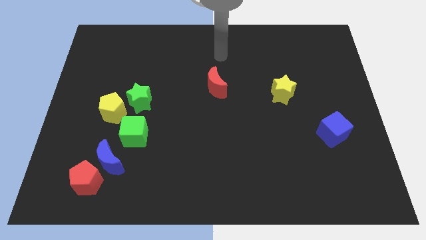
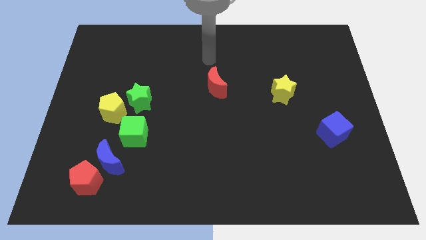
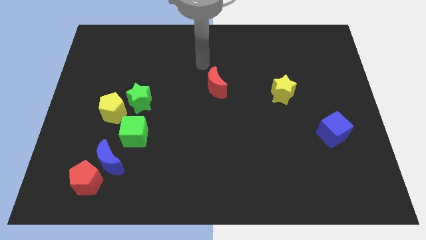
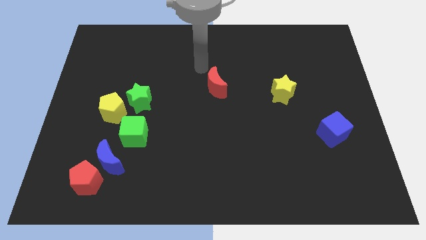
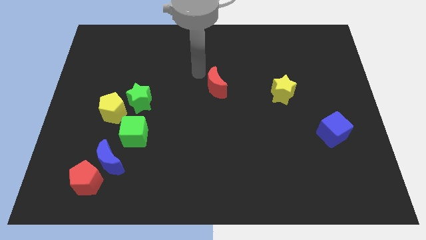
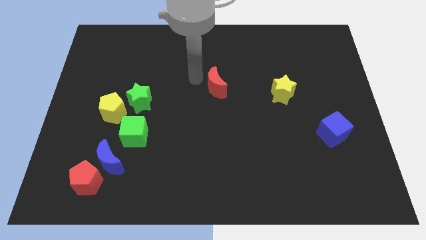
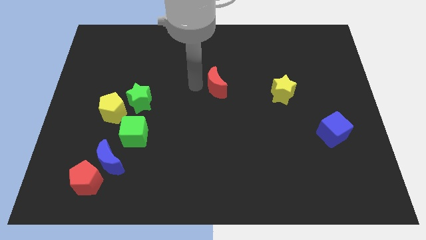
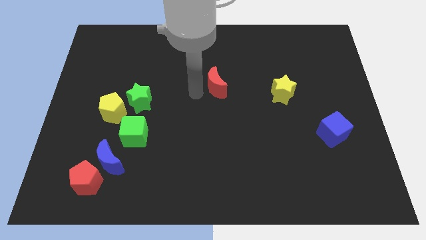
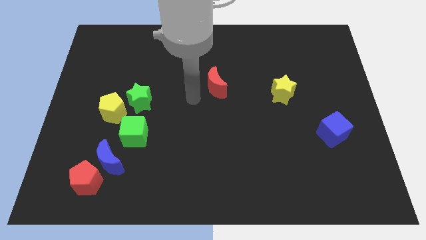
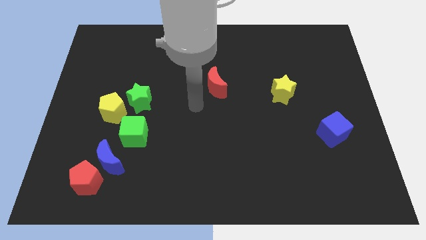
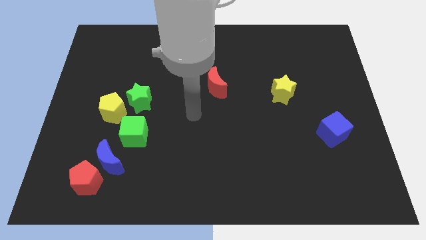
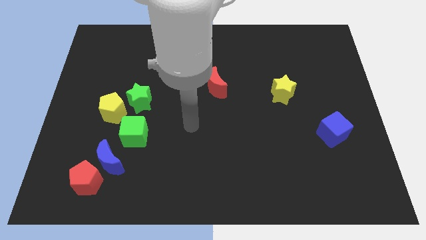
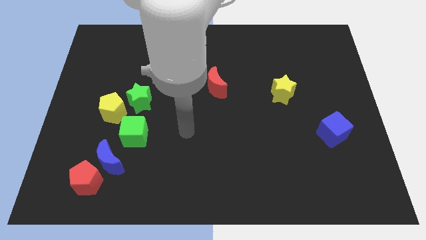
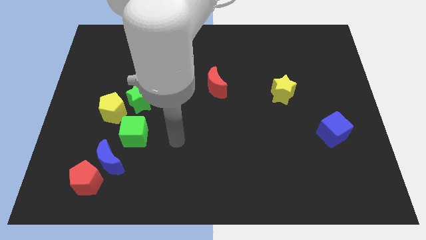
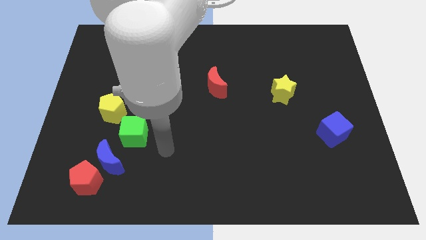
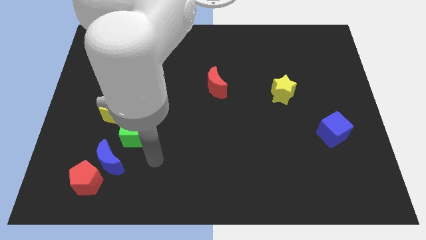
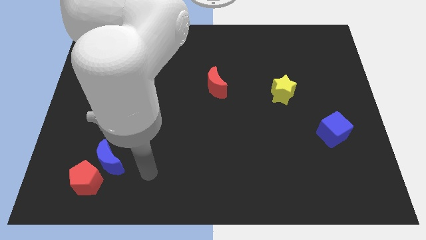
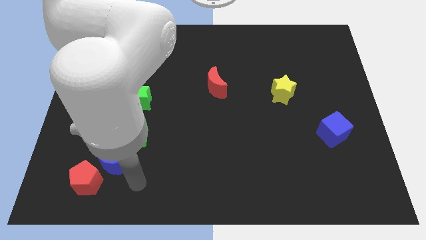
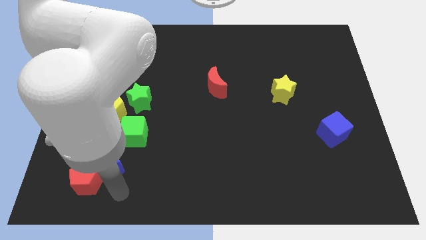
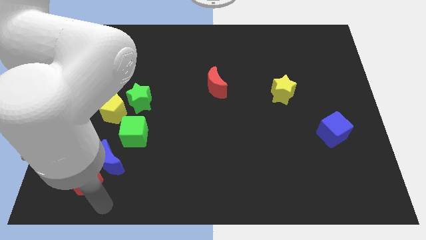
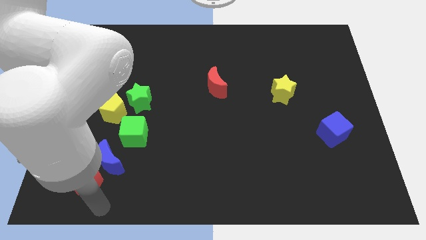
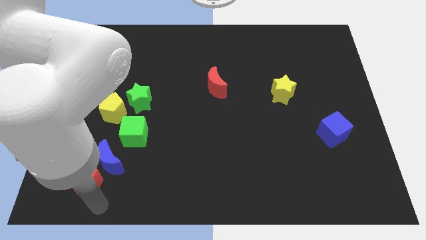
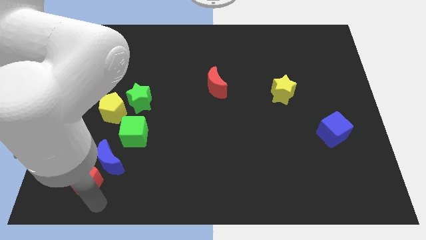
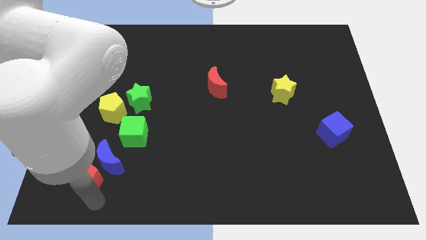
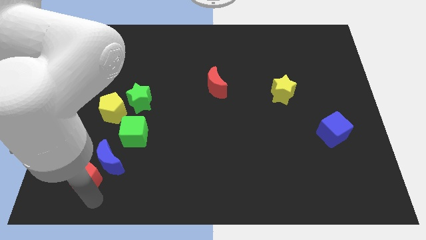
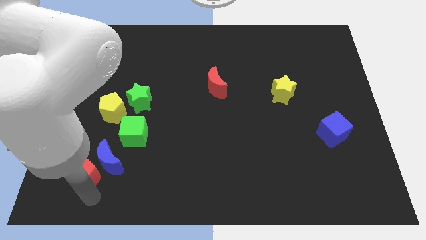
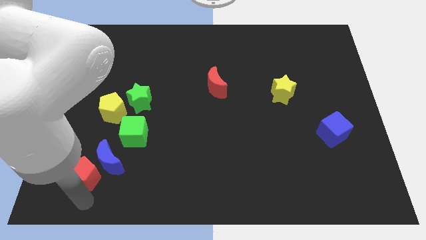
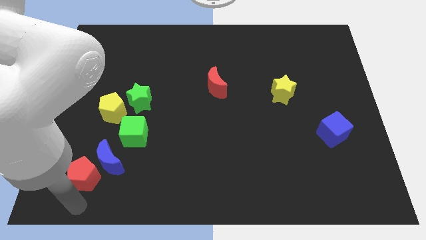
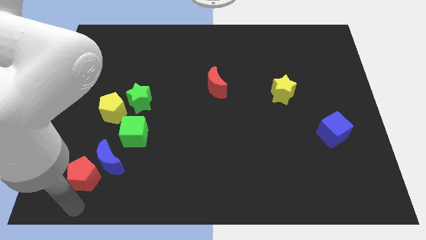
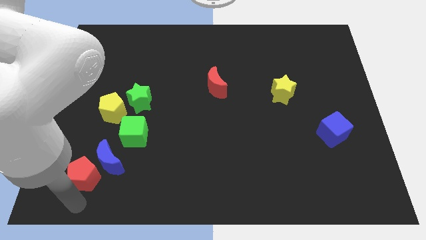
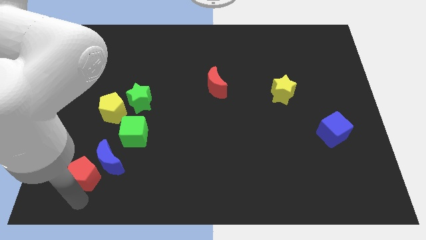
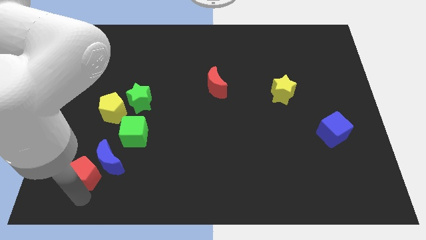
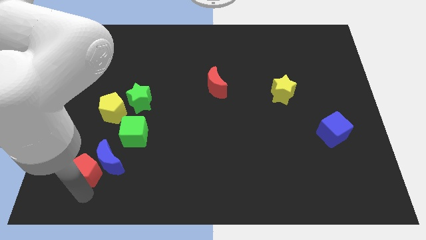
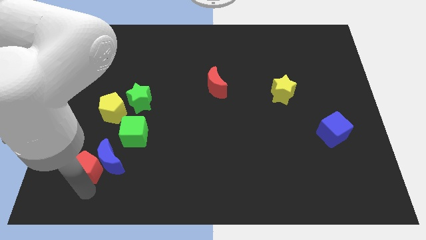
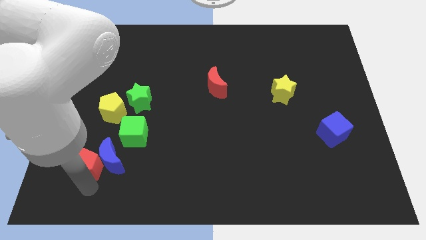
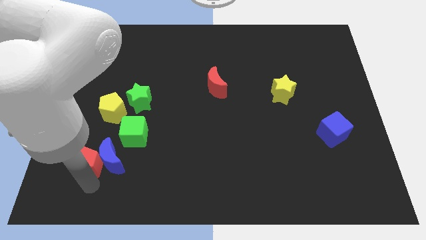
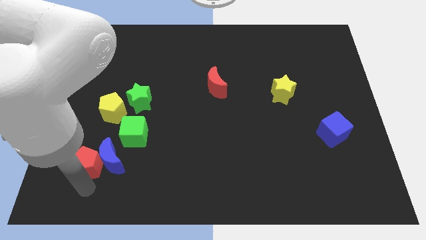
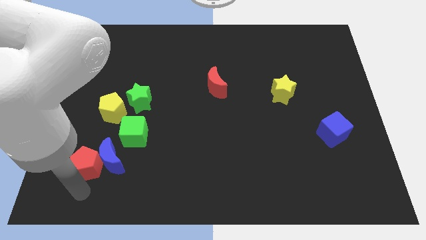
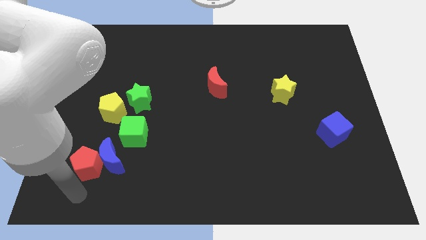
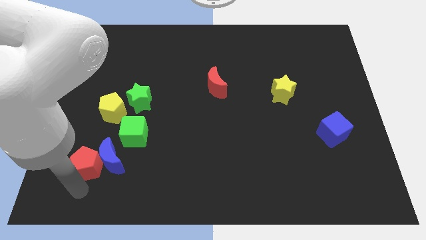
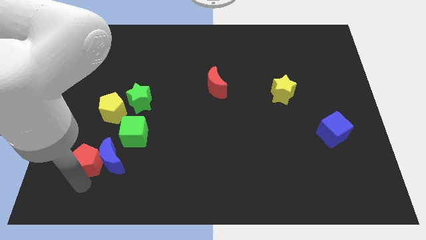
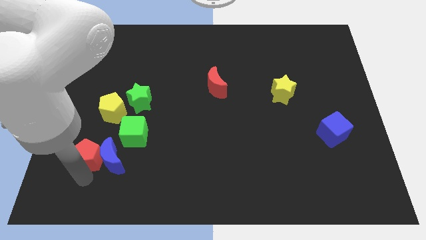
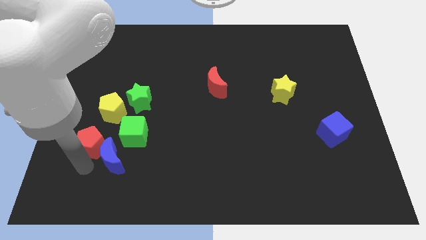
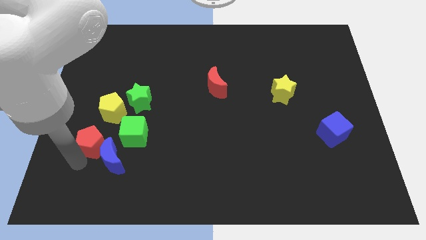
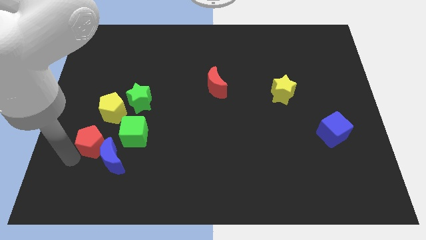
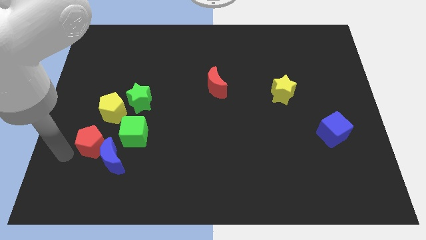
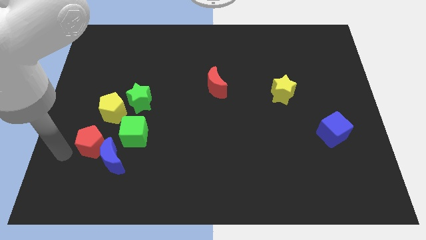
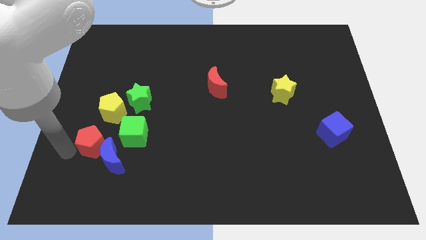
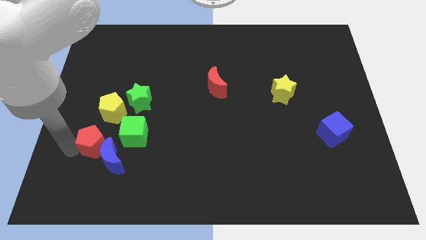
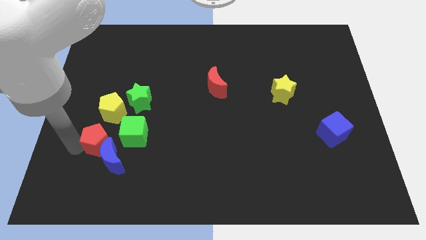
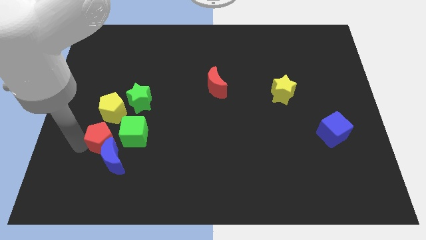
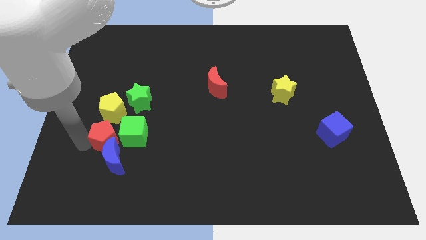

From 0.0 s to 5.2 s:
put the red pentagon close to the green cube

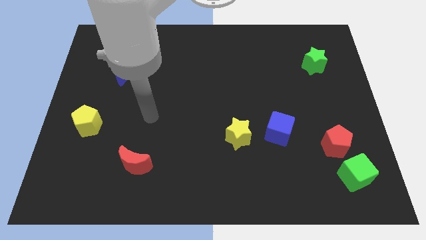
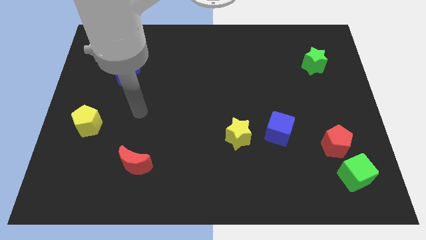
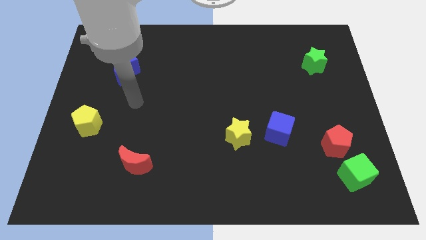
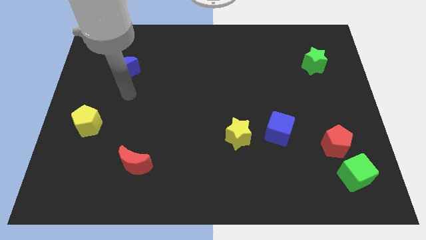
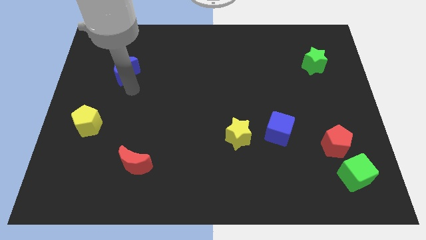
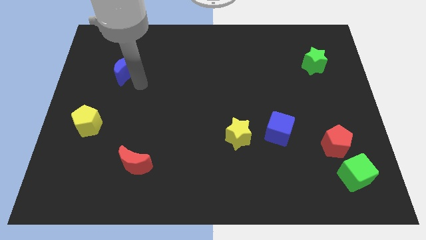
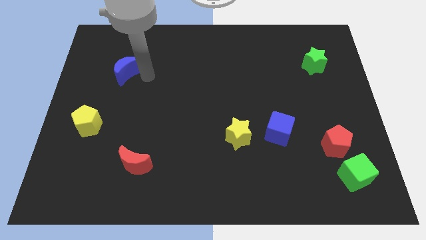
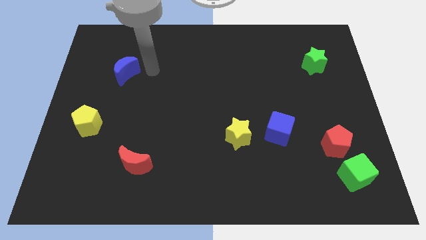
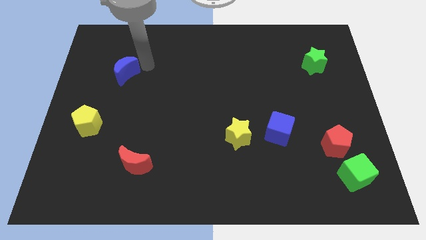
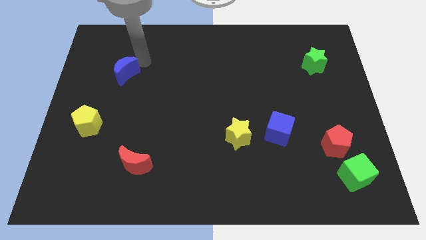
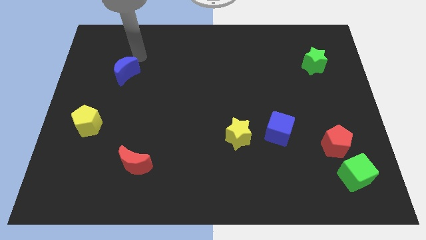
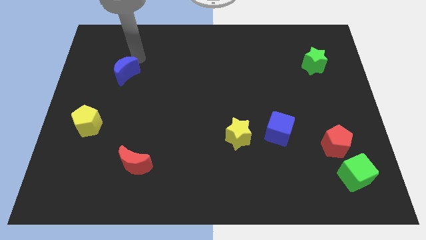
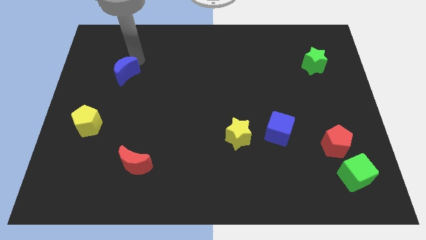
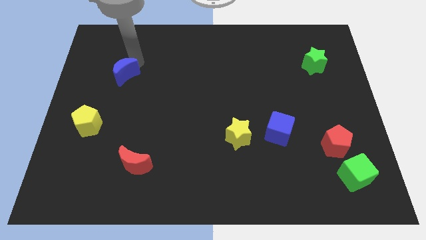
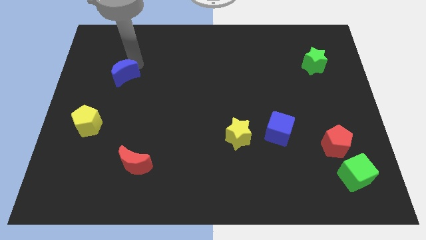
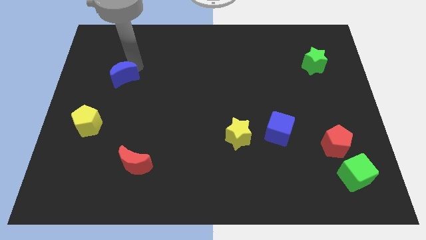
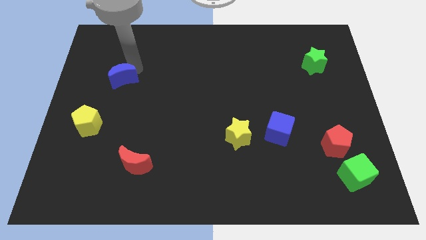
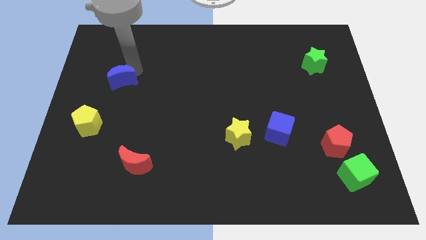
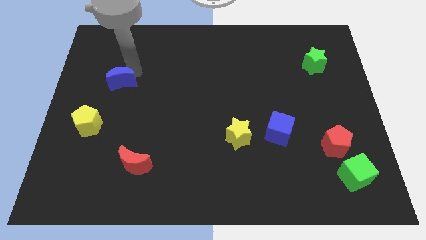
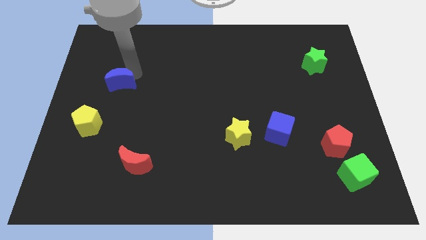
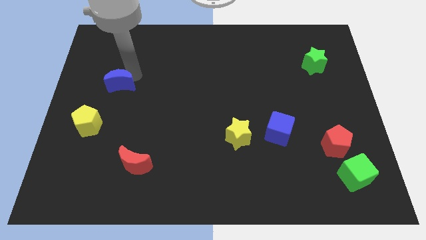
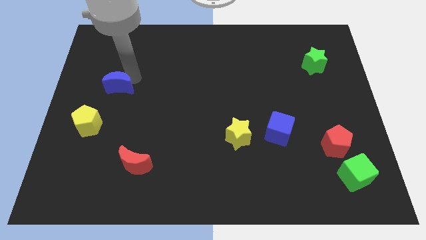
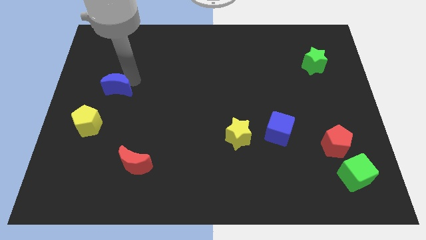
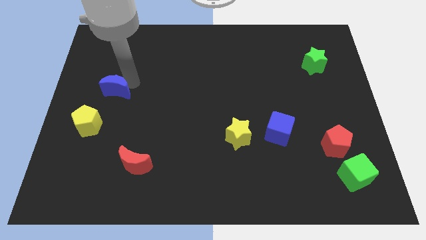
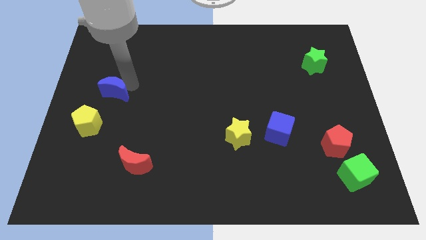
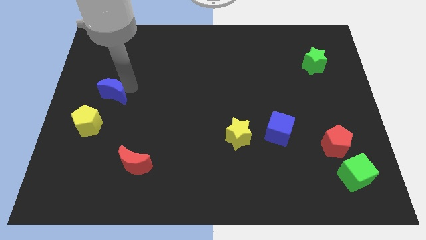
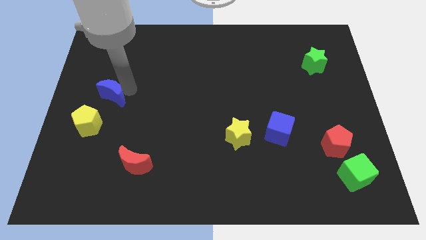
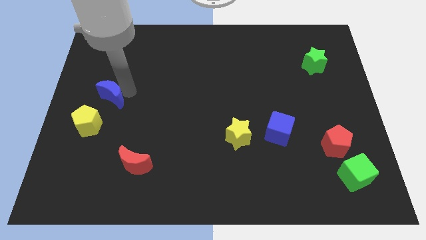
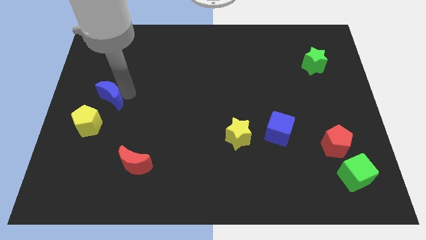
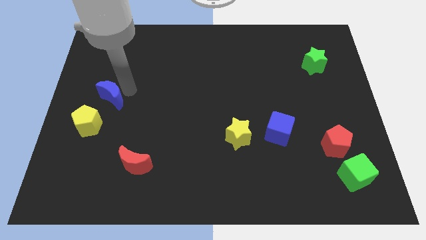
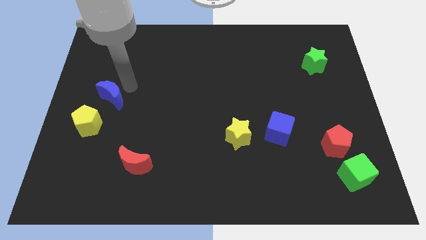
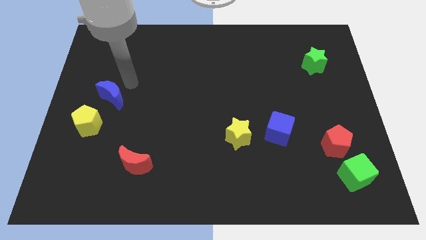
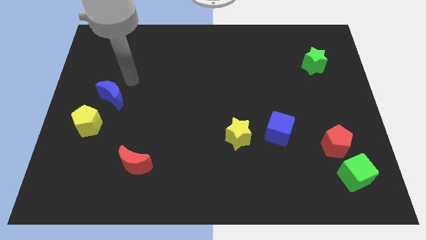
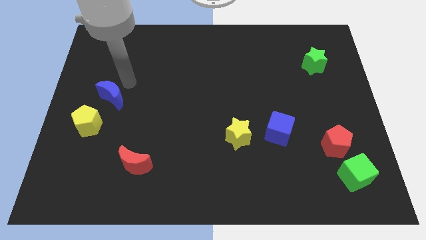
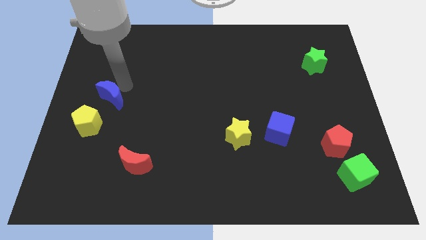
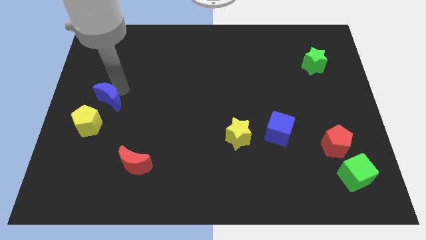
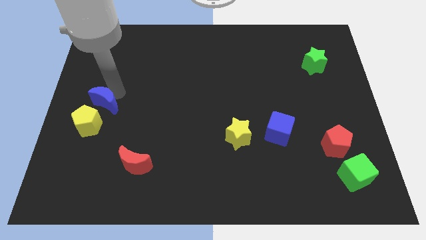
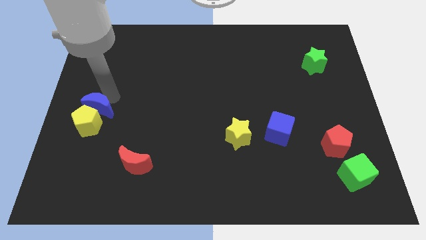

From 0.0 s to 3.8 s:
put the blue moon close to the yellow pentagon
